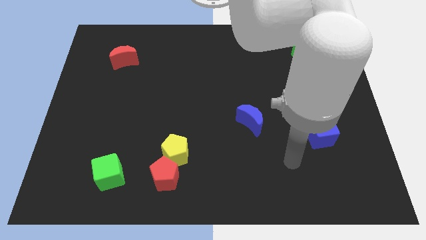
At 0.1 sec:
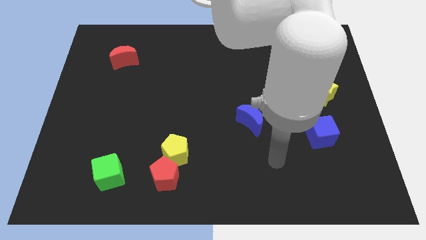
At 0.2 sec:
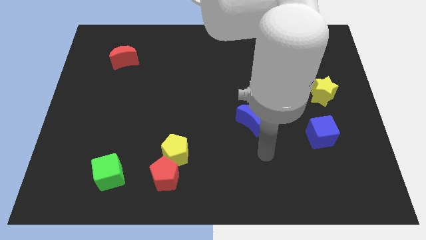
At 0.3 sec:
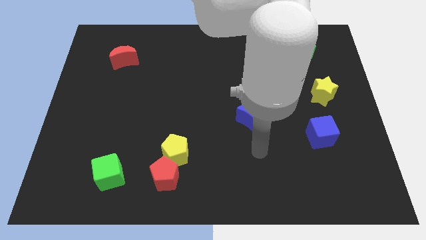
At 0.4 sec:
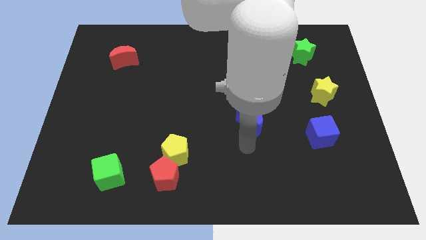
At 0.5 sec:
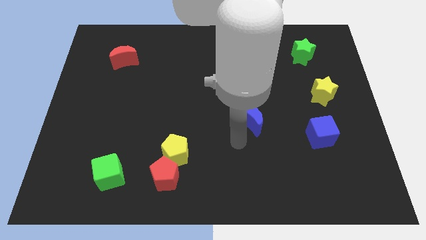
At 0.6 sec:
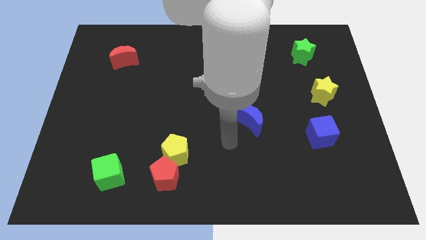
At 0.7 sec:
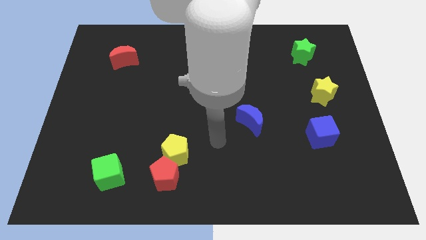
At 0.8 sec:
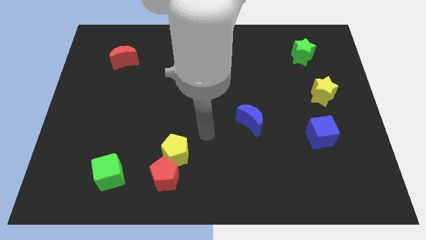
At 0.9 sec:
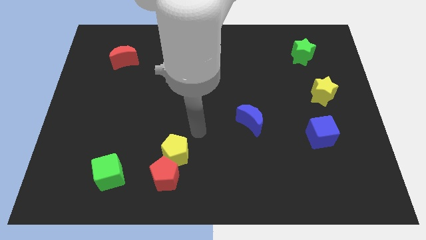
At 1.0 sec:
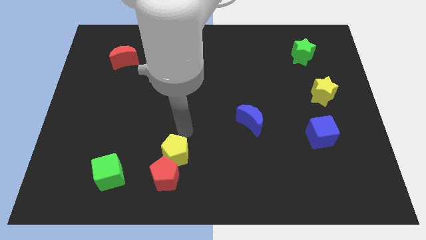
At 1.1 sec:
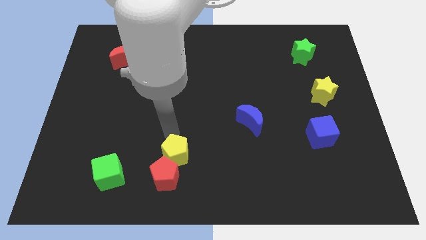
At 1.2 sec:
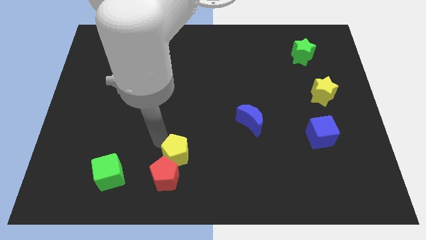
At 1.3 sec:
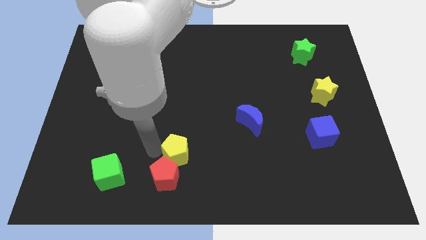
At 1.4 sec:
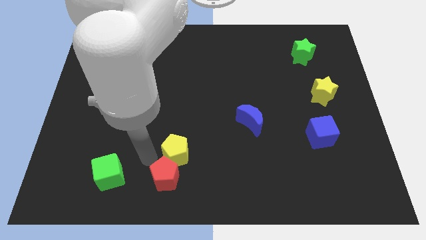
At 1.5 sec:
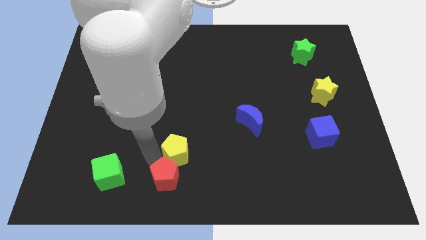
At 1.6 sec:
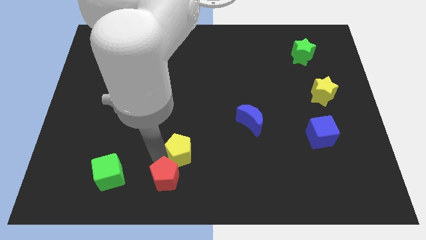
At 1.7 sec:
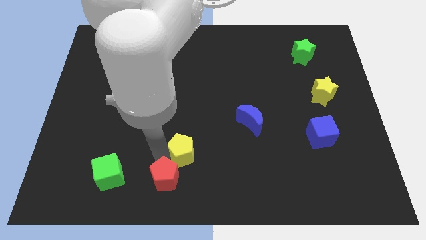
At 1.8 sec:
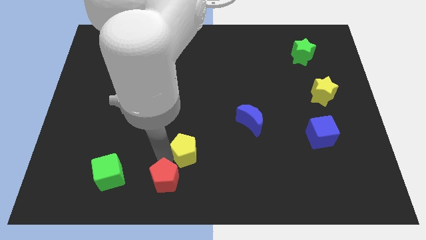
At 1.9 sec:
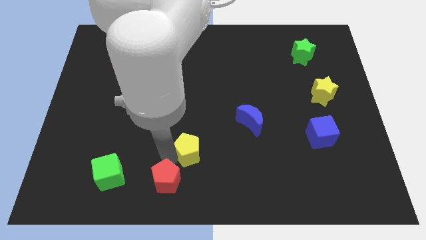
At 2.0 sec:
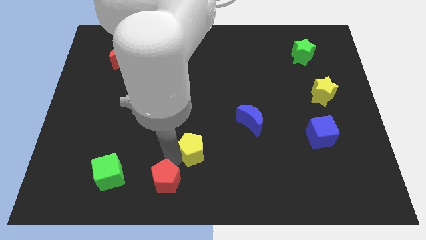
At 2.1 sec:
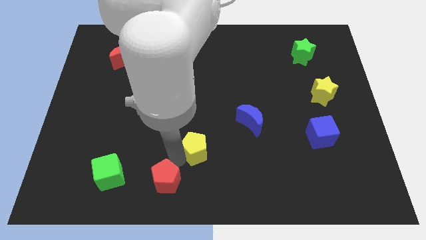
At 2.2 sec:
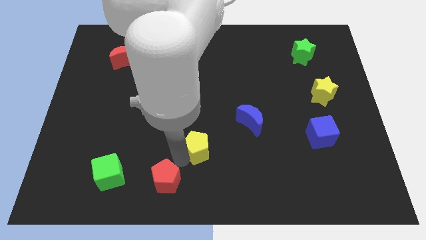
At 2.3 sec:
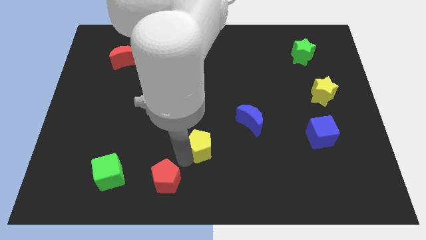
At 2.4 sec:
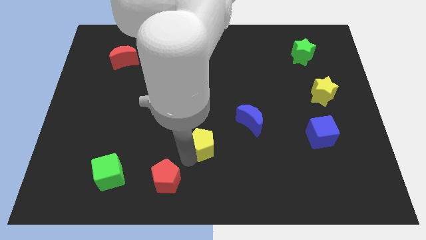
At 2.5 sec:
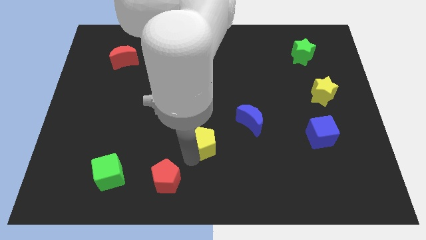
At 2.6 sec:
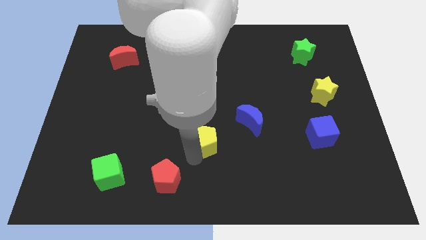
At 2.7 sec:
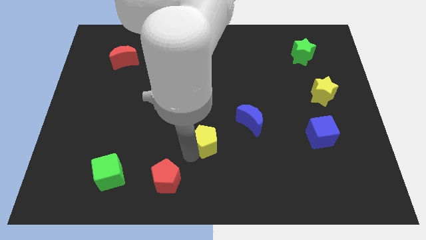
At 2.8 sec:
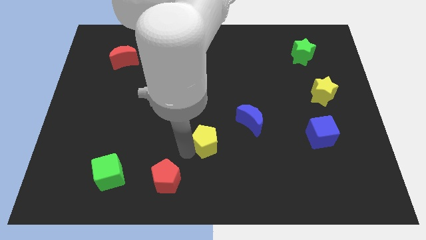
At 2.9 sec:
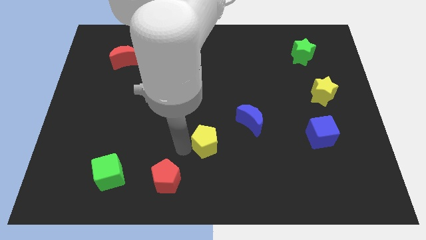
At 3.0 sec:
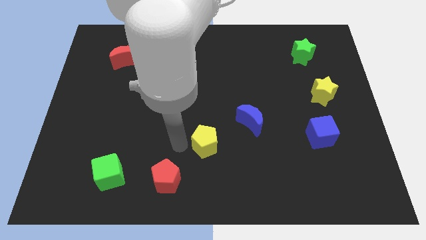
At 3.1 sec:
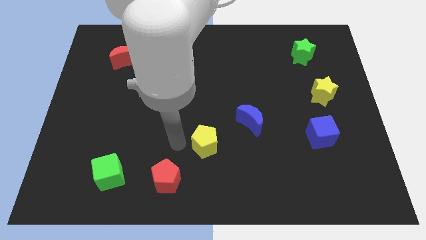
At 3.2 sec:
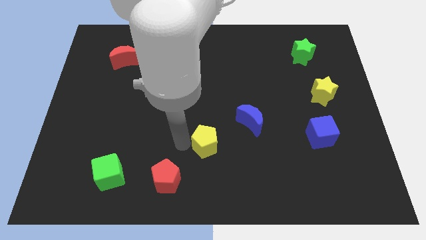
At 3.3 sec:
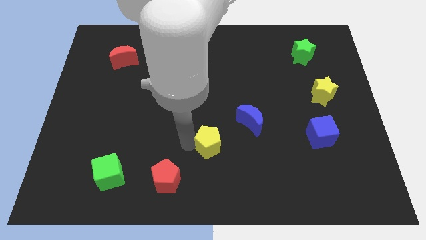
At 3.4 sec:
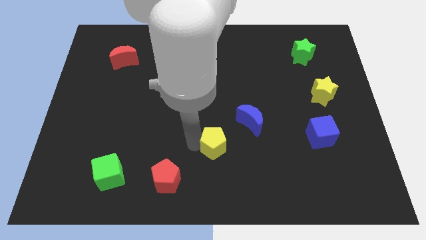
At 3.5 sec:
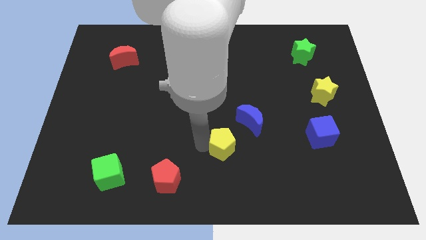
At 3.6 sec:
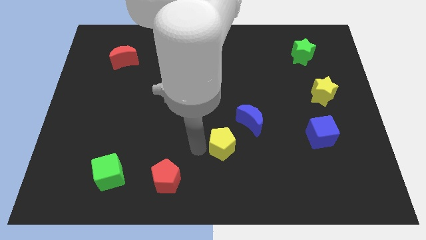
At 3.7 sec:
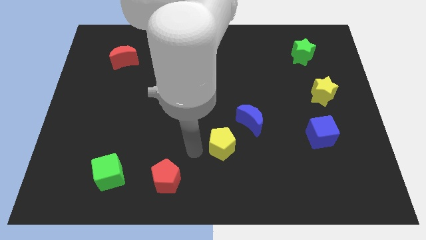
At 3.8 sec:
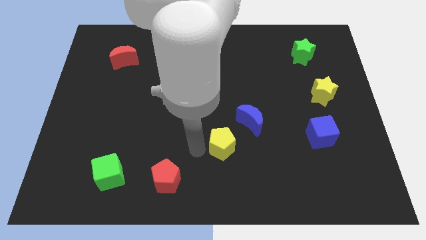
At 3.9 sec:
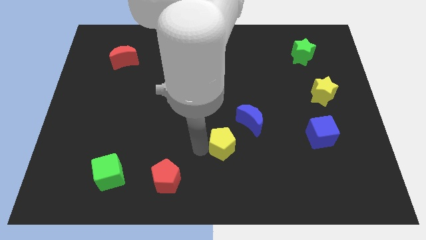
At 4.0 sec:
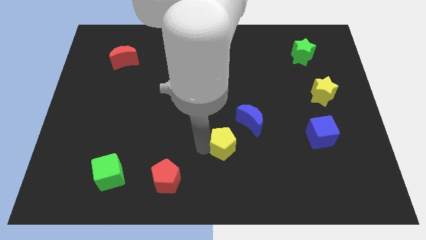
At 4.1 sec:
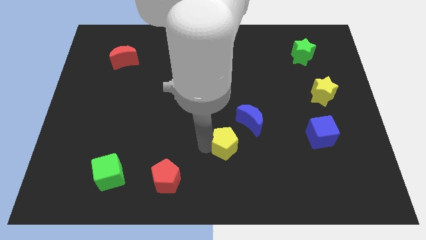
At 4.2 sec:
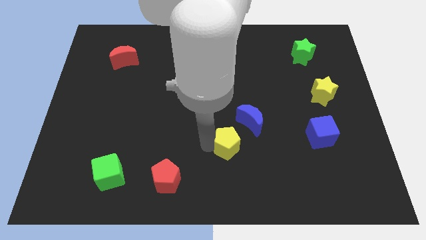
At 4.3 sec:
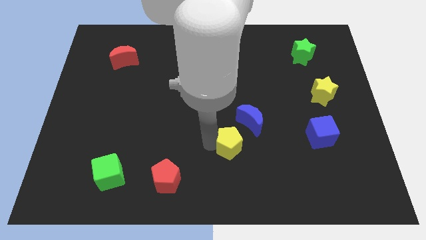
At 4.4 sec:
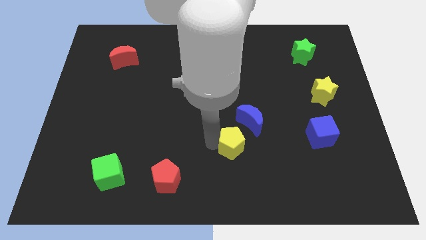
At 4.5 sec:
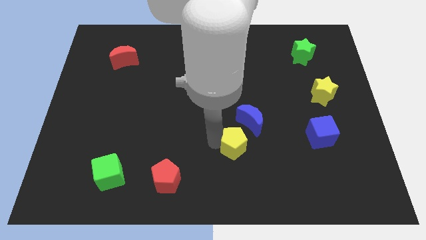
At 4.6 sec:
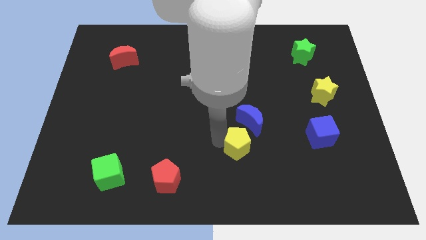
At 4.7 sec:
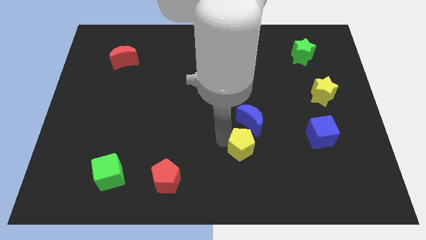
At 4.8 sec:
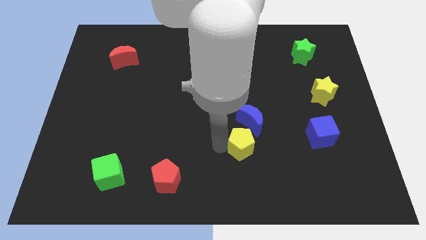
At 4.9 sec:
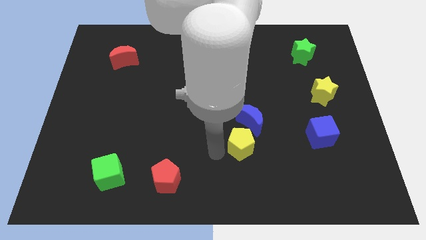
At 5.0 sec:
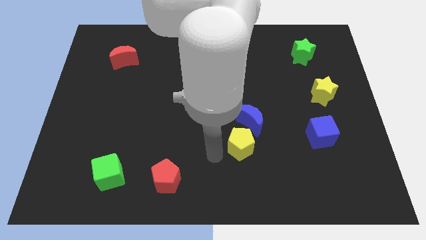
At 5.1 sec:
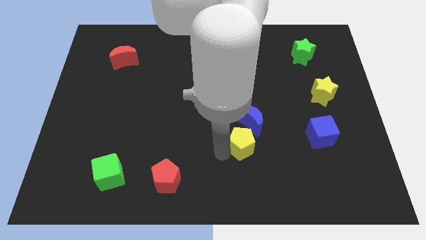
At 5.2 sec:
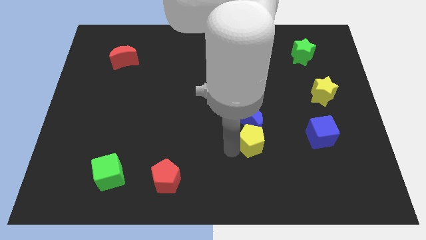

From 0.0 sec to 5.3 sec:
push the yellow pentagon to the left of the blue cube

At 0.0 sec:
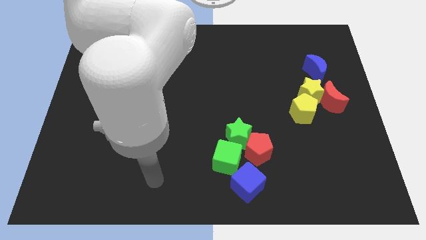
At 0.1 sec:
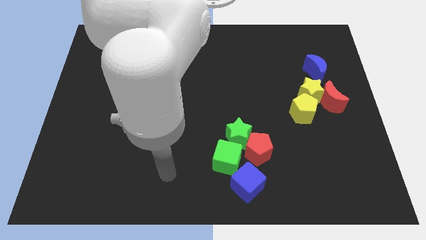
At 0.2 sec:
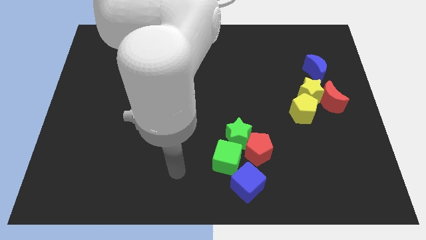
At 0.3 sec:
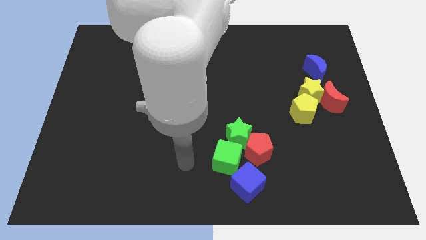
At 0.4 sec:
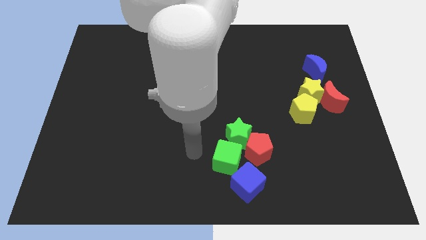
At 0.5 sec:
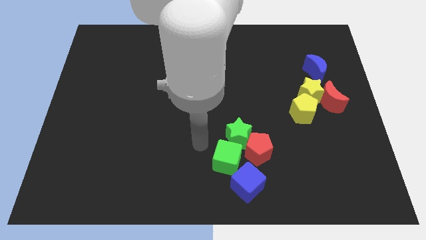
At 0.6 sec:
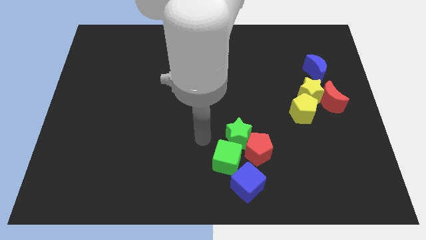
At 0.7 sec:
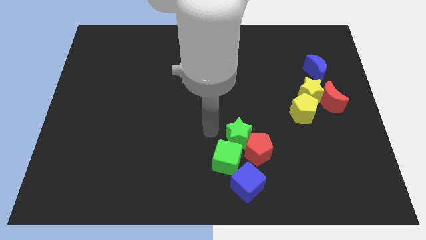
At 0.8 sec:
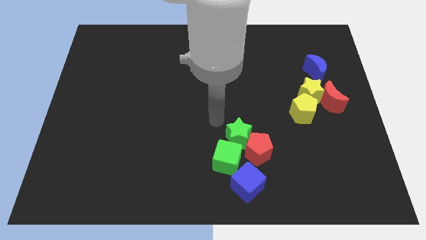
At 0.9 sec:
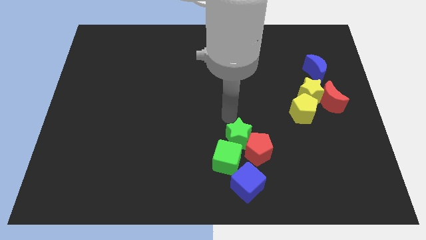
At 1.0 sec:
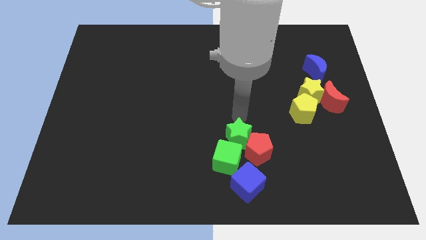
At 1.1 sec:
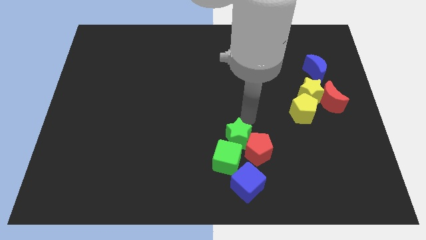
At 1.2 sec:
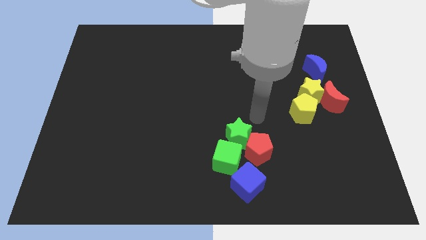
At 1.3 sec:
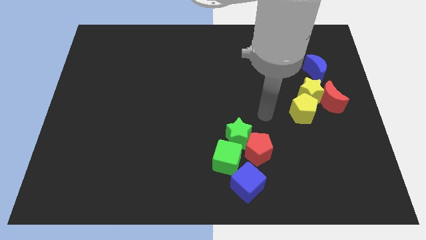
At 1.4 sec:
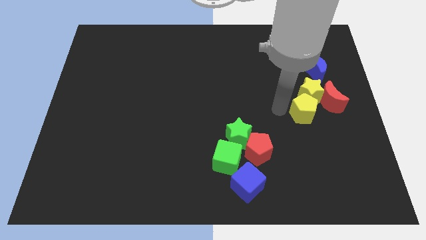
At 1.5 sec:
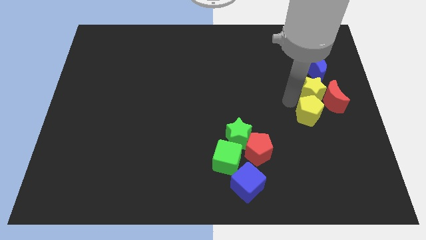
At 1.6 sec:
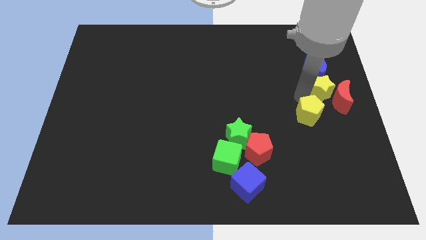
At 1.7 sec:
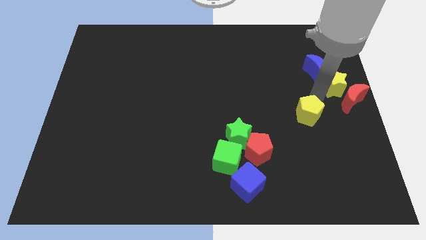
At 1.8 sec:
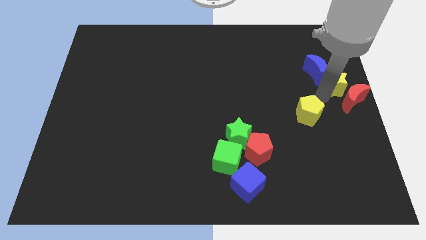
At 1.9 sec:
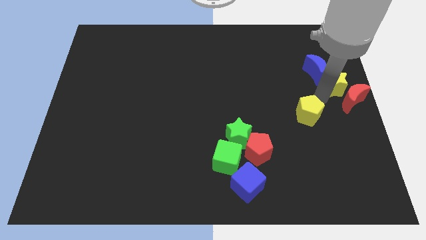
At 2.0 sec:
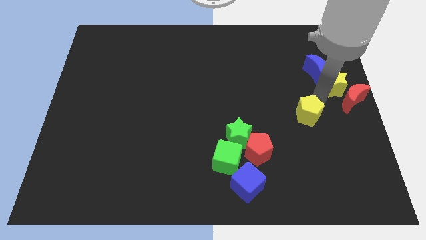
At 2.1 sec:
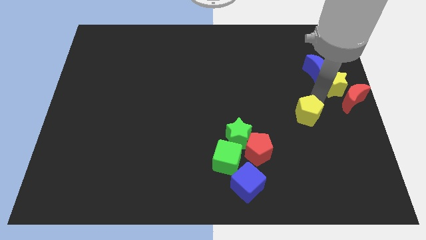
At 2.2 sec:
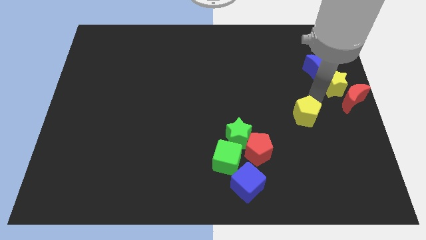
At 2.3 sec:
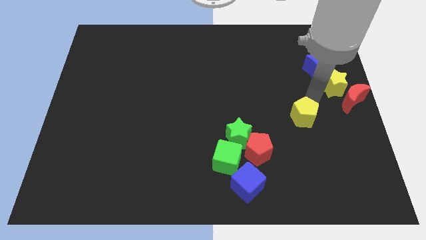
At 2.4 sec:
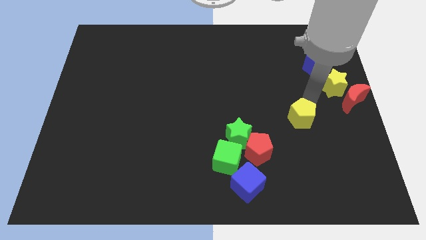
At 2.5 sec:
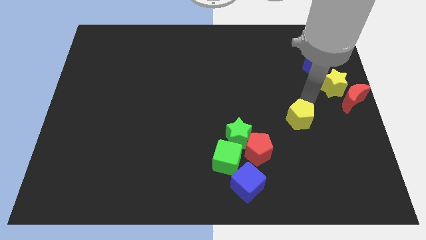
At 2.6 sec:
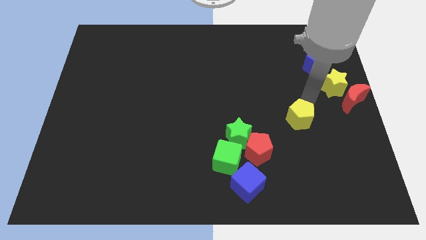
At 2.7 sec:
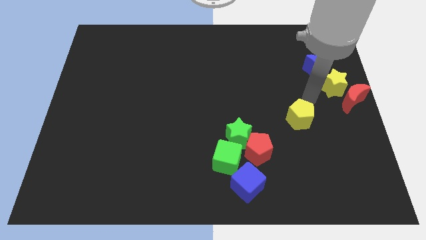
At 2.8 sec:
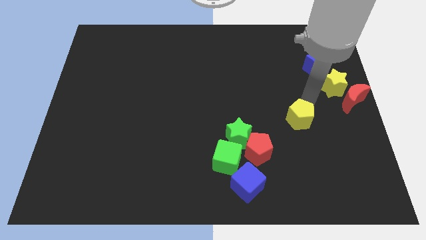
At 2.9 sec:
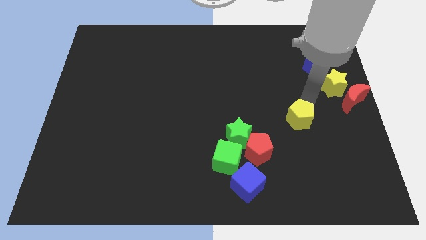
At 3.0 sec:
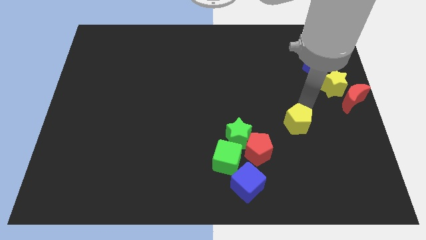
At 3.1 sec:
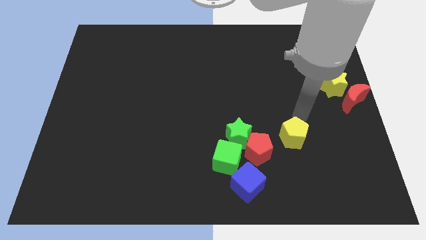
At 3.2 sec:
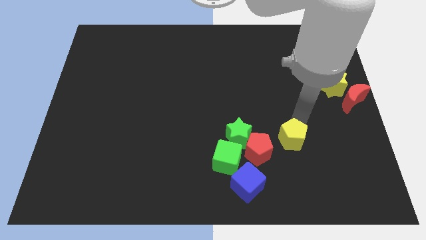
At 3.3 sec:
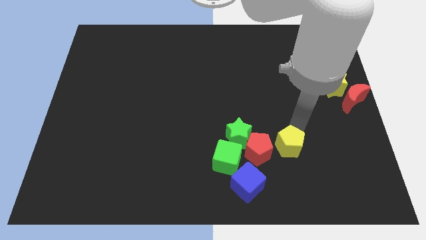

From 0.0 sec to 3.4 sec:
push the yellow pentagon to the right side of the green cube
